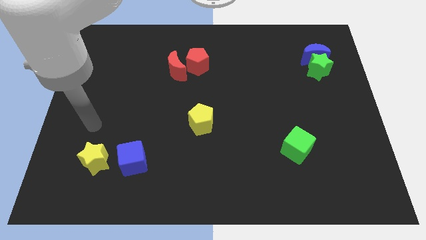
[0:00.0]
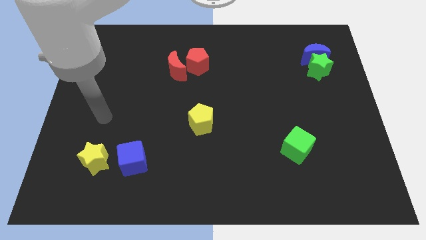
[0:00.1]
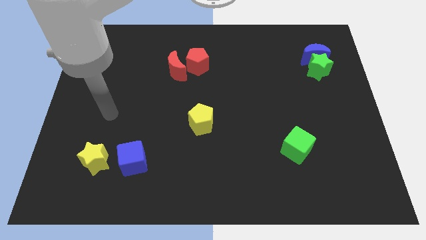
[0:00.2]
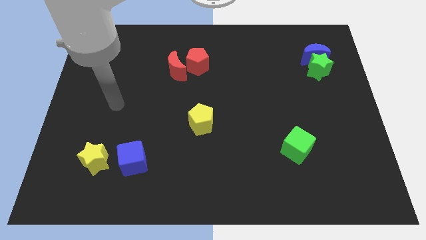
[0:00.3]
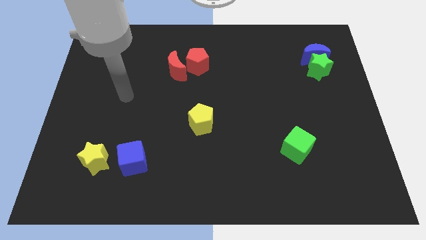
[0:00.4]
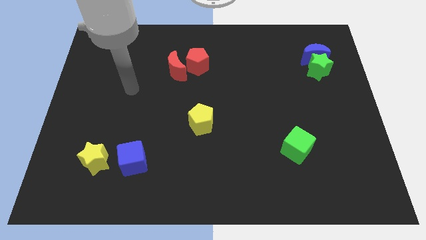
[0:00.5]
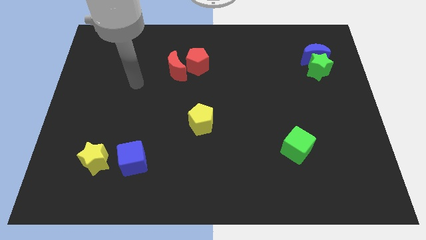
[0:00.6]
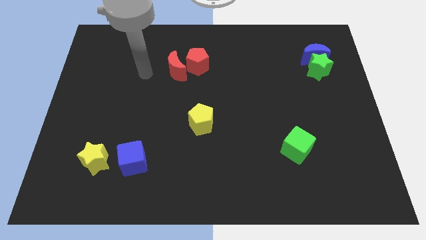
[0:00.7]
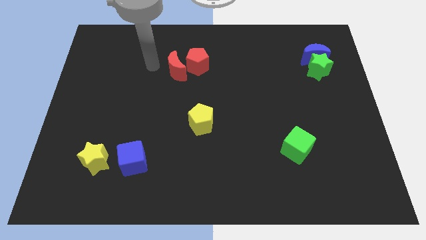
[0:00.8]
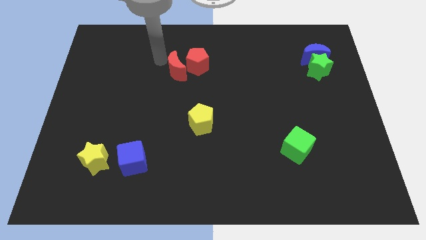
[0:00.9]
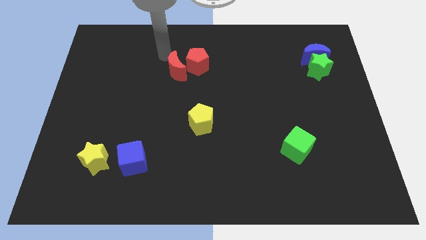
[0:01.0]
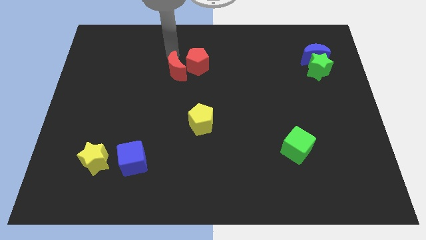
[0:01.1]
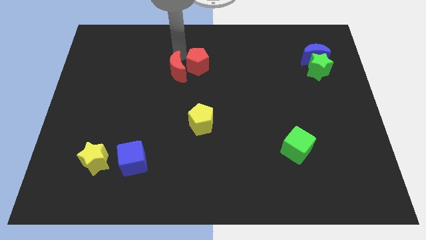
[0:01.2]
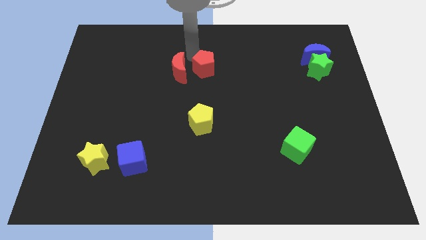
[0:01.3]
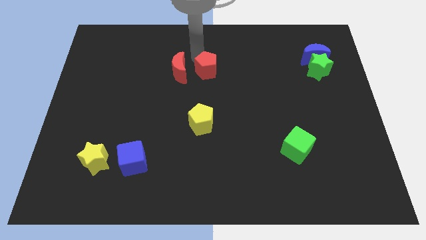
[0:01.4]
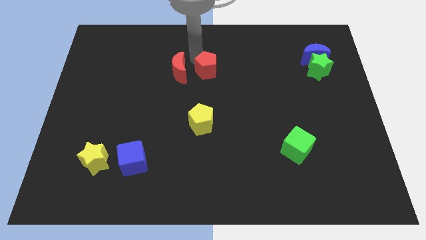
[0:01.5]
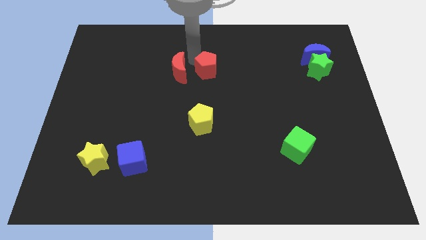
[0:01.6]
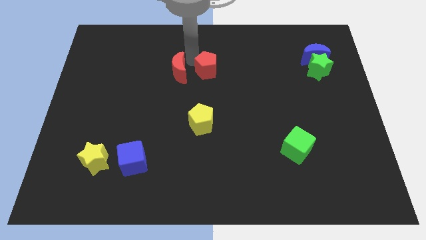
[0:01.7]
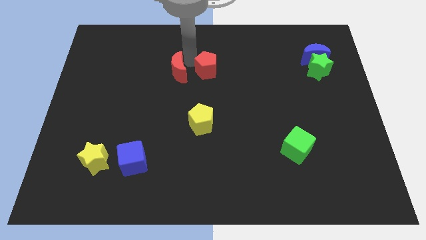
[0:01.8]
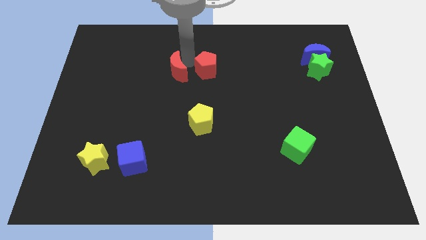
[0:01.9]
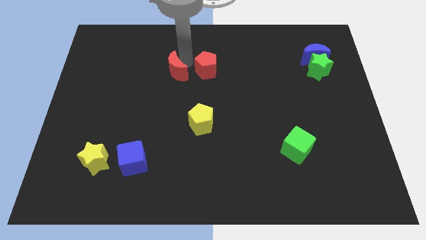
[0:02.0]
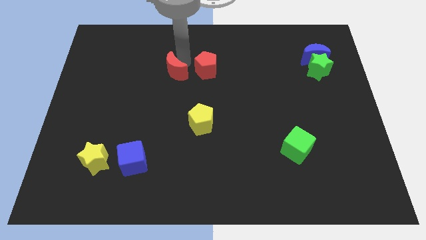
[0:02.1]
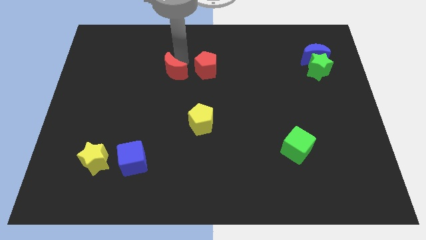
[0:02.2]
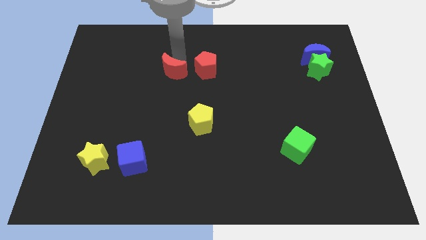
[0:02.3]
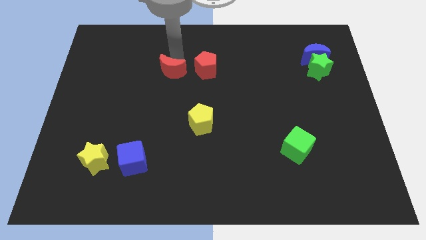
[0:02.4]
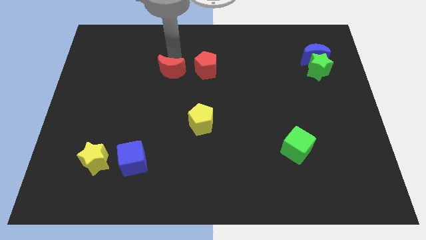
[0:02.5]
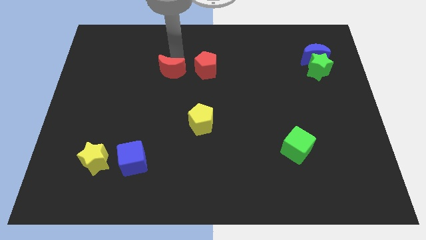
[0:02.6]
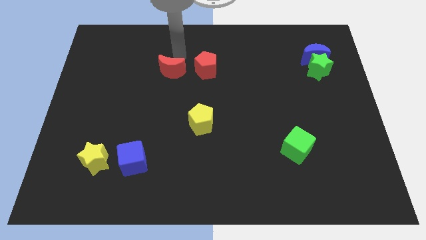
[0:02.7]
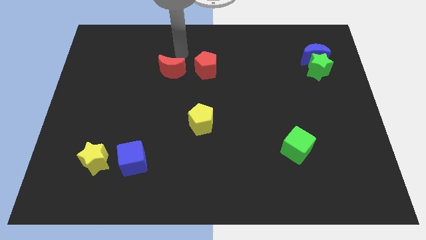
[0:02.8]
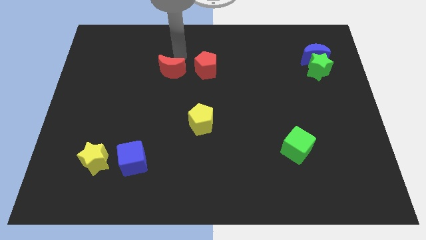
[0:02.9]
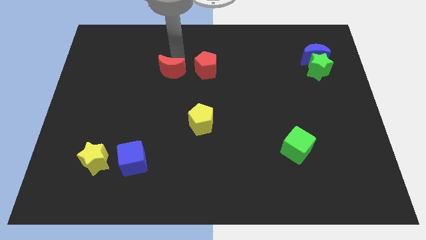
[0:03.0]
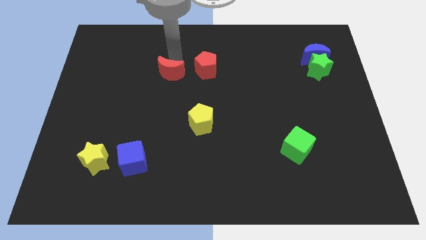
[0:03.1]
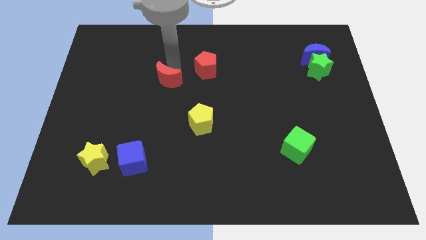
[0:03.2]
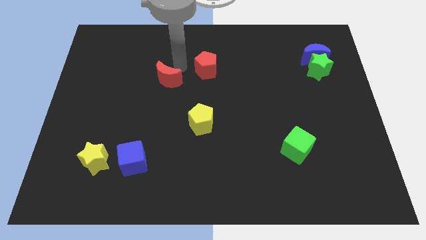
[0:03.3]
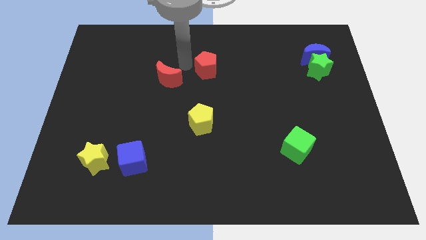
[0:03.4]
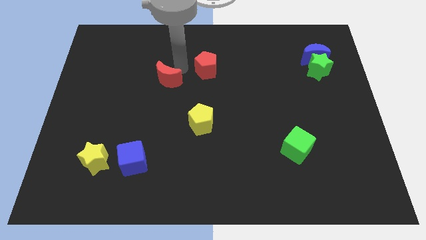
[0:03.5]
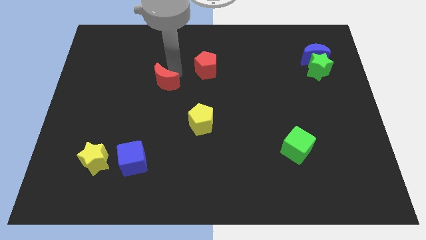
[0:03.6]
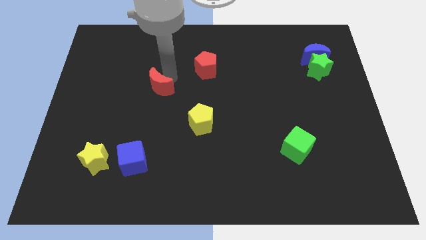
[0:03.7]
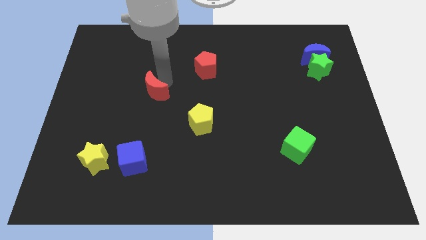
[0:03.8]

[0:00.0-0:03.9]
move the red moon slightly diagonally downwards and left

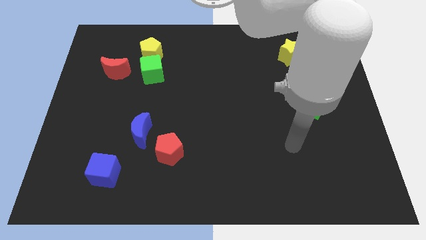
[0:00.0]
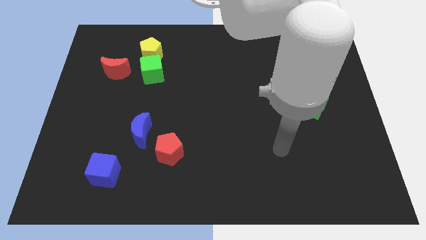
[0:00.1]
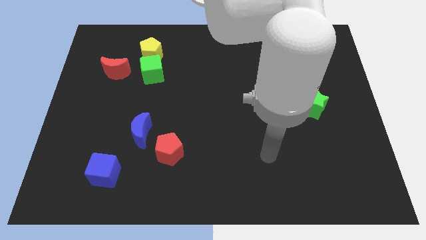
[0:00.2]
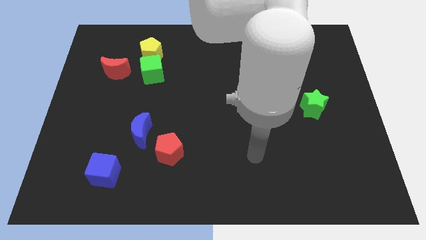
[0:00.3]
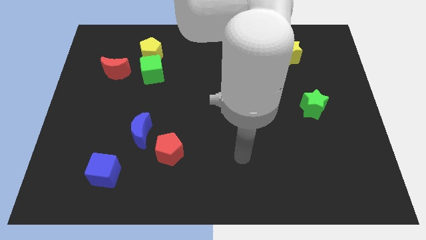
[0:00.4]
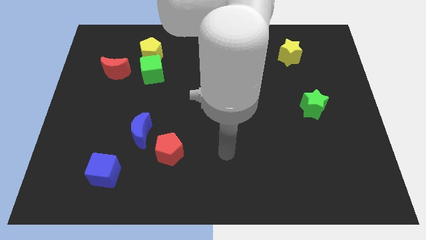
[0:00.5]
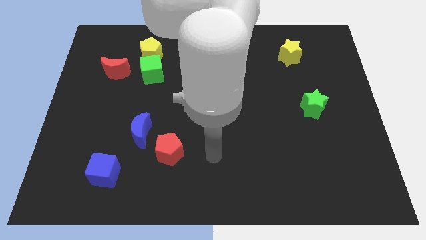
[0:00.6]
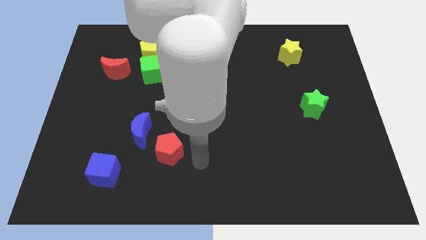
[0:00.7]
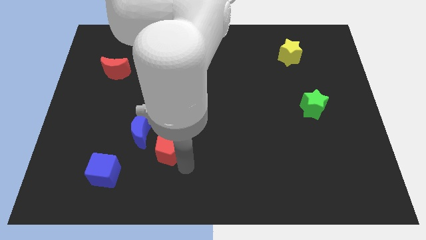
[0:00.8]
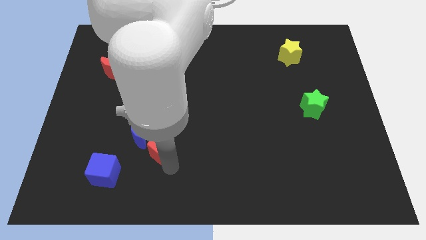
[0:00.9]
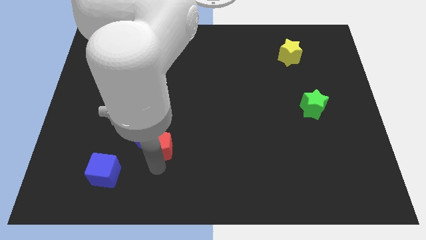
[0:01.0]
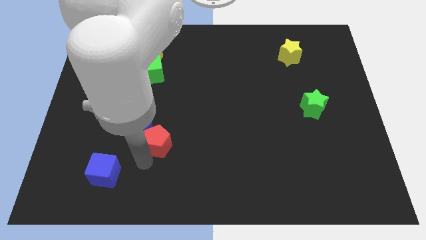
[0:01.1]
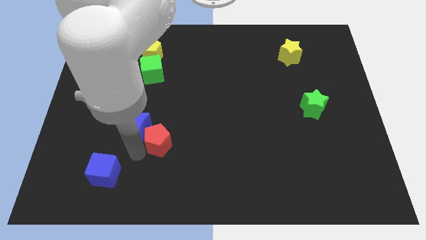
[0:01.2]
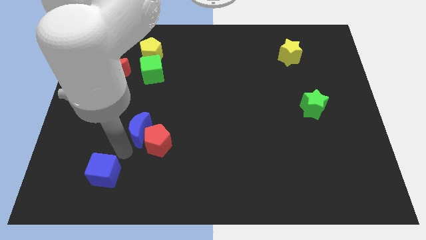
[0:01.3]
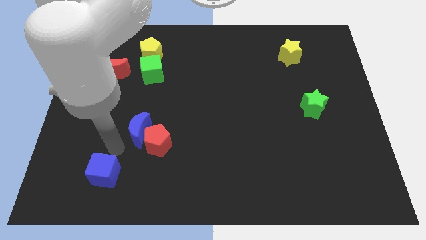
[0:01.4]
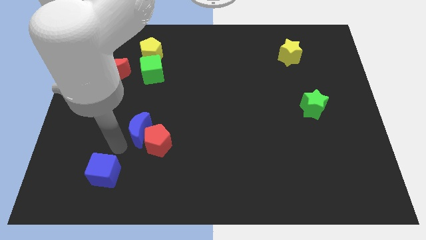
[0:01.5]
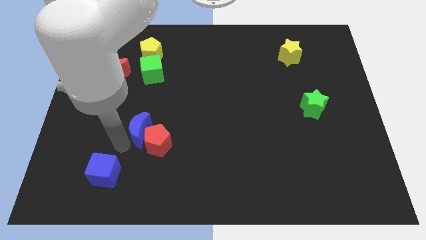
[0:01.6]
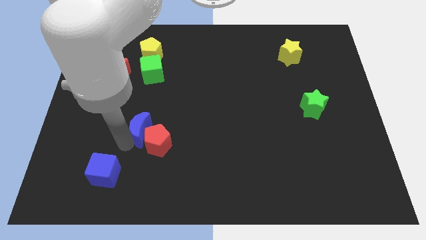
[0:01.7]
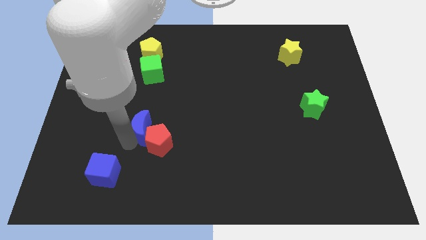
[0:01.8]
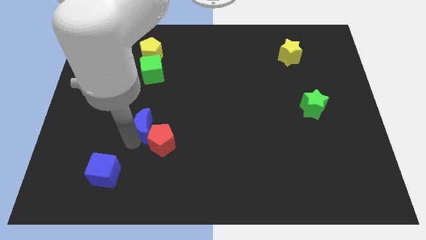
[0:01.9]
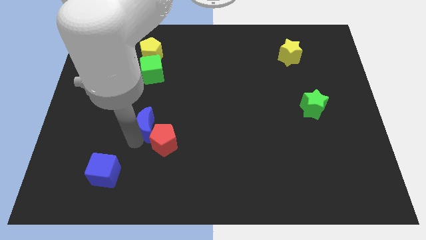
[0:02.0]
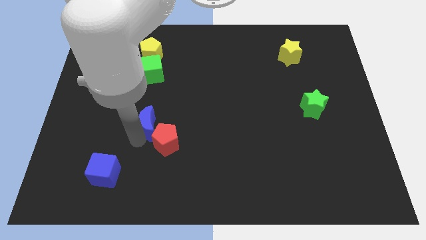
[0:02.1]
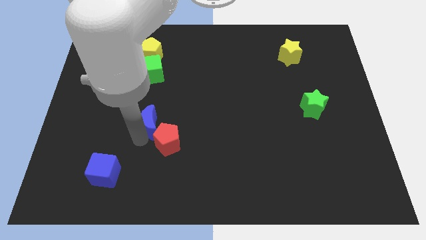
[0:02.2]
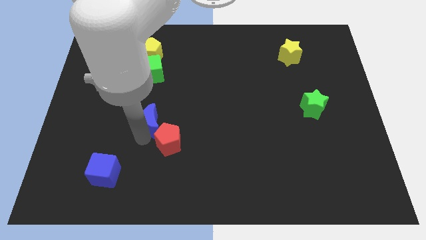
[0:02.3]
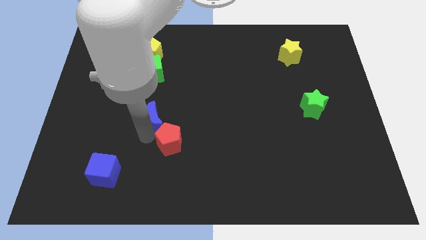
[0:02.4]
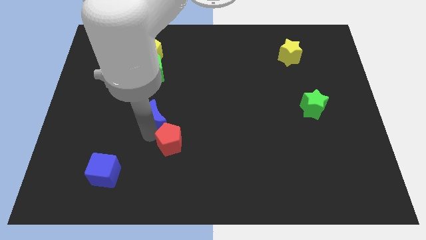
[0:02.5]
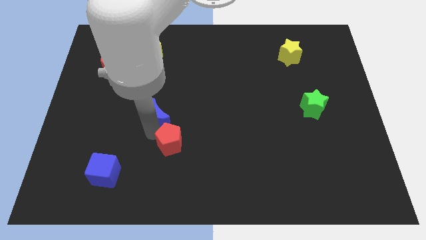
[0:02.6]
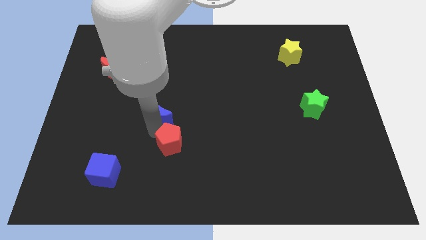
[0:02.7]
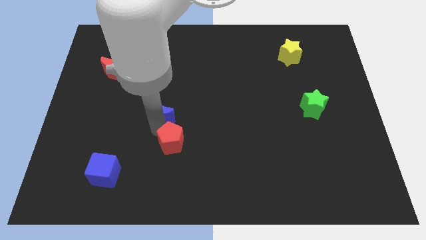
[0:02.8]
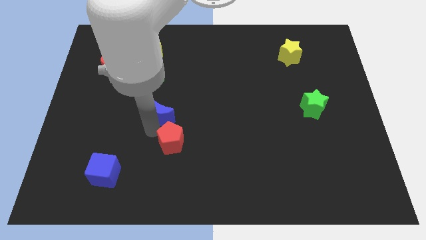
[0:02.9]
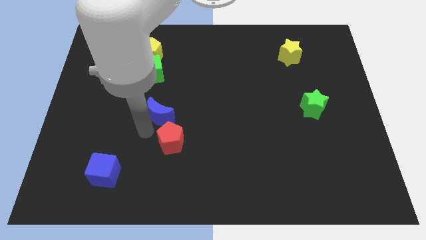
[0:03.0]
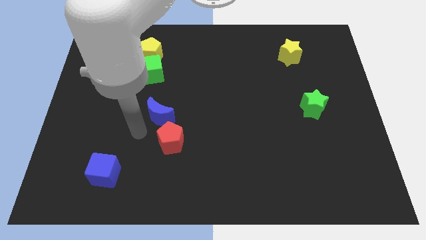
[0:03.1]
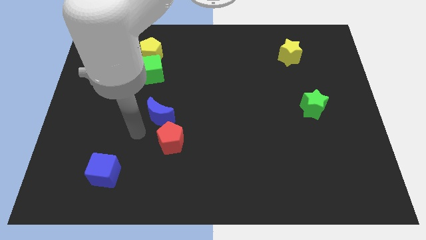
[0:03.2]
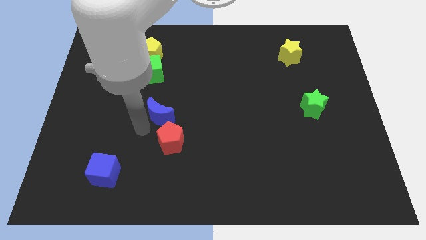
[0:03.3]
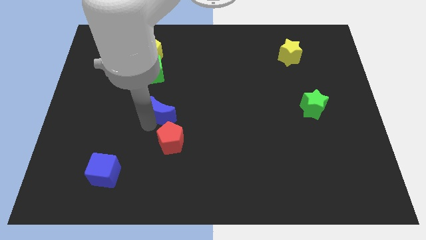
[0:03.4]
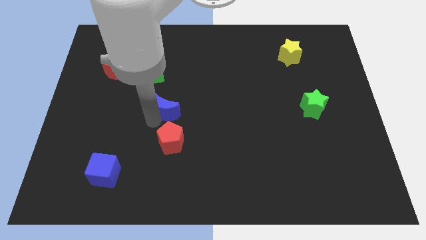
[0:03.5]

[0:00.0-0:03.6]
slide the blue moon slightly up and to the right diagonally
